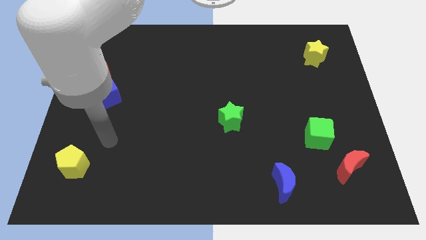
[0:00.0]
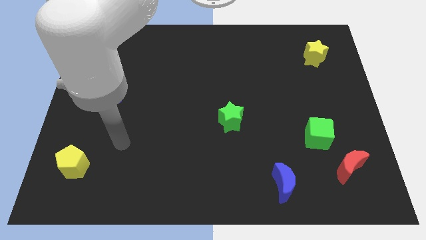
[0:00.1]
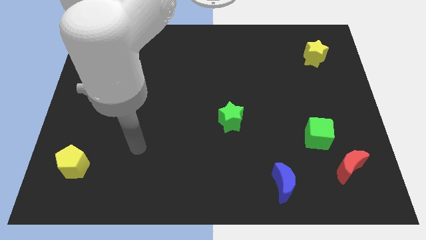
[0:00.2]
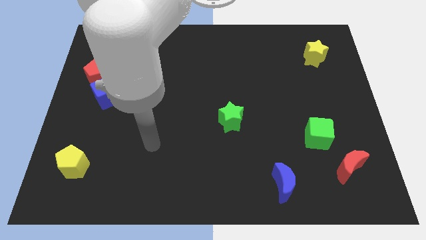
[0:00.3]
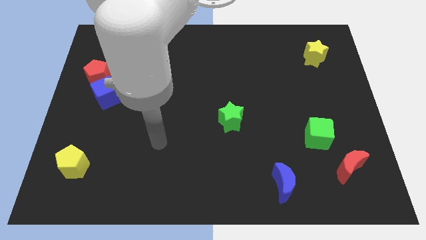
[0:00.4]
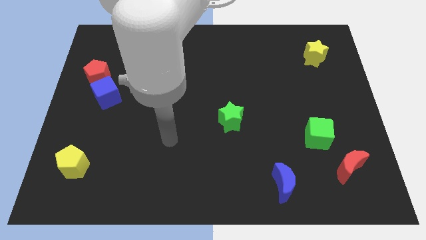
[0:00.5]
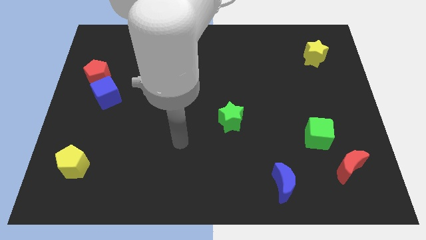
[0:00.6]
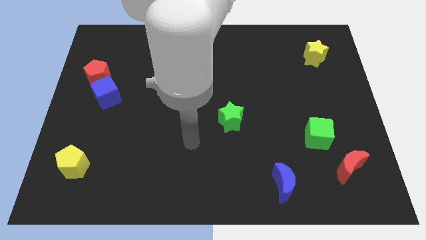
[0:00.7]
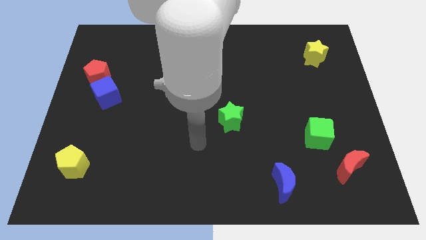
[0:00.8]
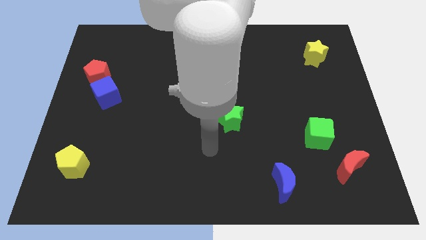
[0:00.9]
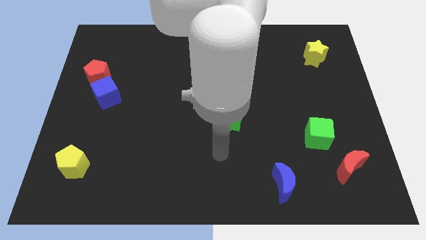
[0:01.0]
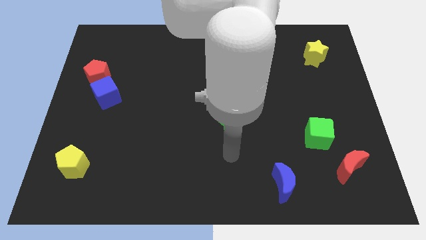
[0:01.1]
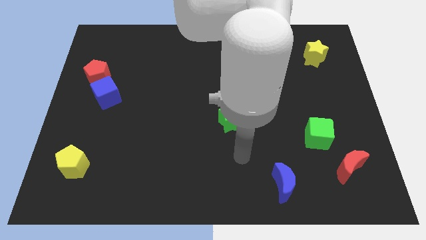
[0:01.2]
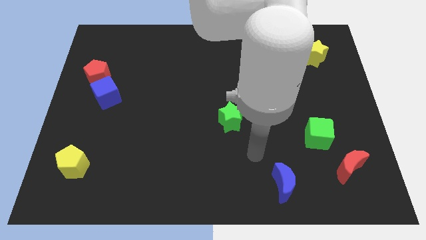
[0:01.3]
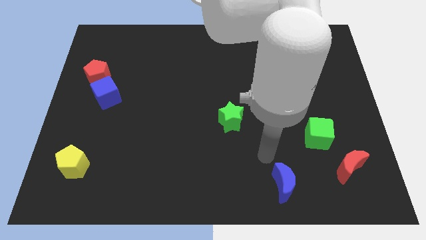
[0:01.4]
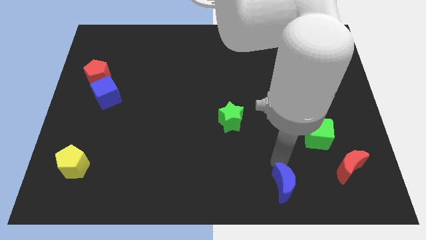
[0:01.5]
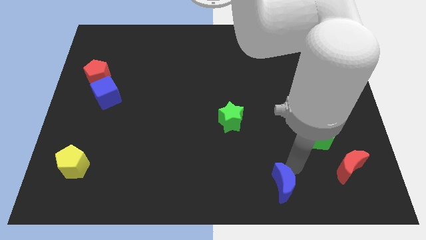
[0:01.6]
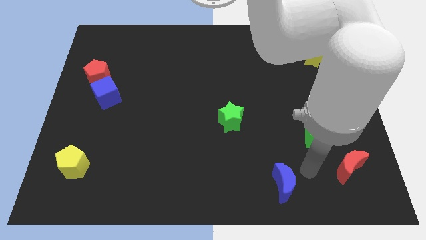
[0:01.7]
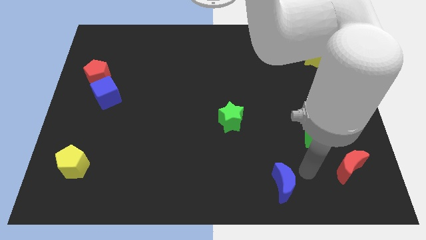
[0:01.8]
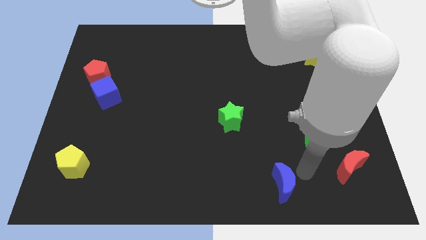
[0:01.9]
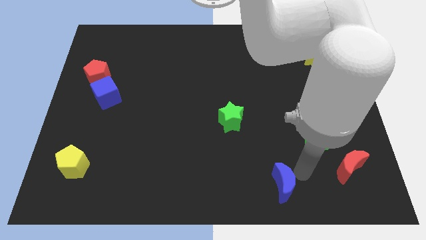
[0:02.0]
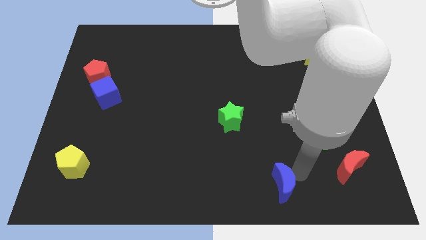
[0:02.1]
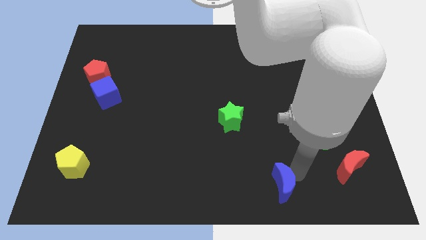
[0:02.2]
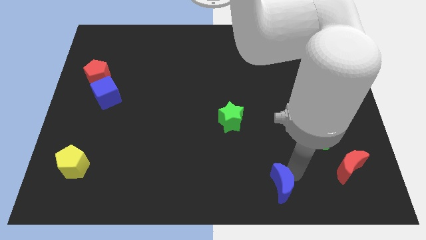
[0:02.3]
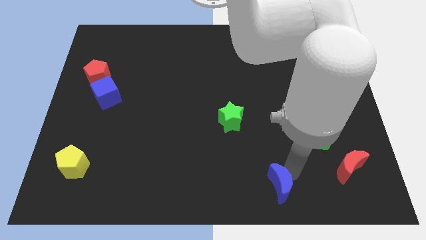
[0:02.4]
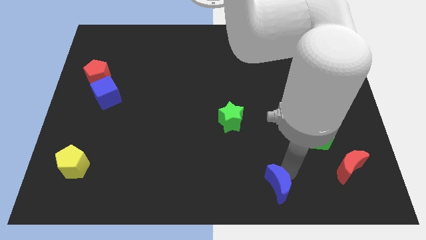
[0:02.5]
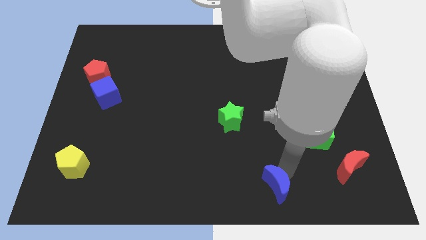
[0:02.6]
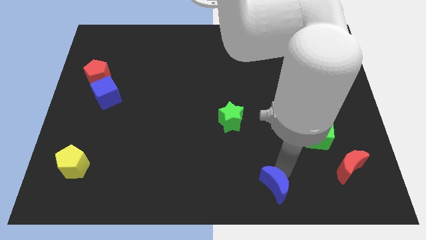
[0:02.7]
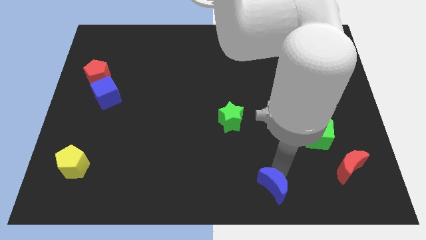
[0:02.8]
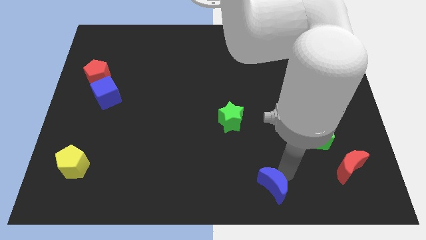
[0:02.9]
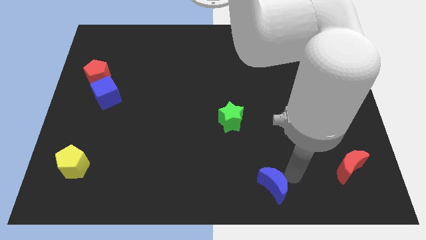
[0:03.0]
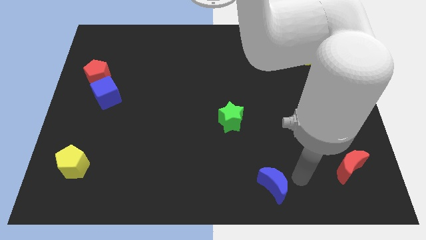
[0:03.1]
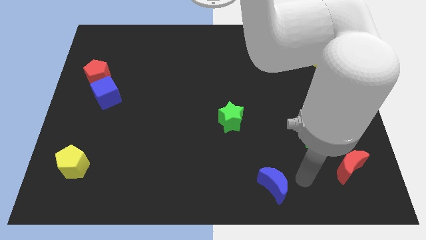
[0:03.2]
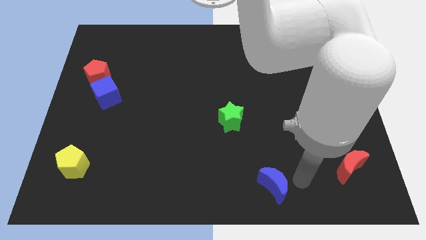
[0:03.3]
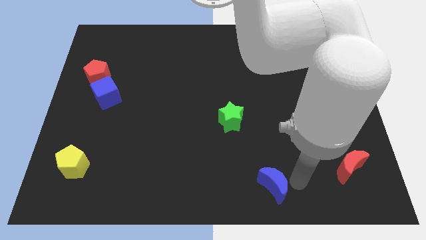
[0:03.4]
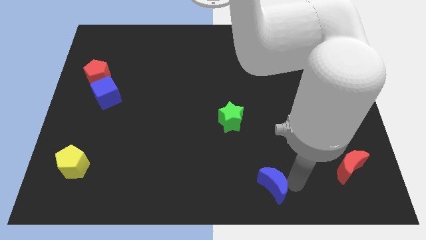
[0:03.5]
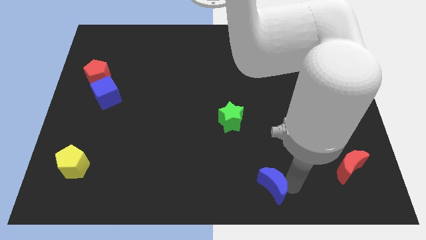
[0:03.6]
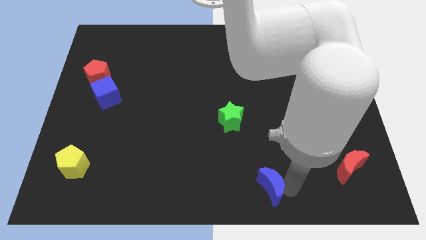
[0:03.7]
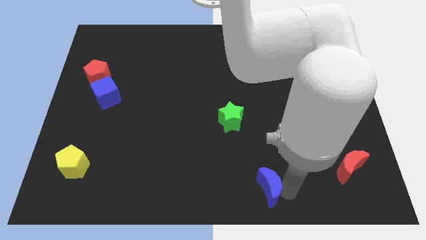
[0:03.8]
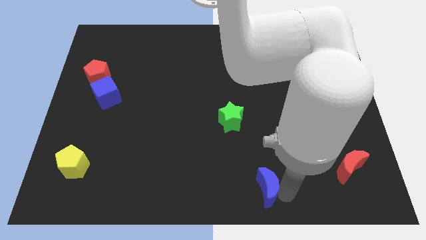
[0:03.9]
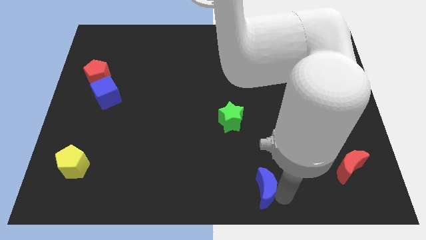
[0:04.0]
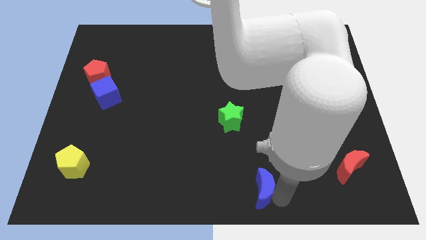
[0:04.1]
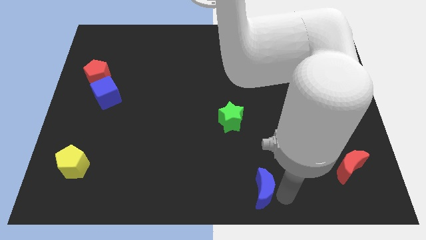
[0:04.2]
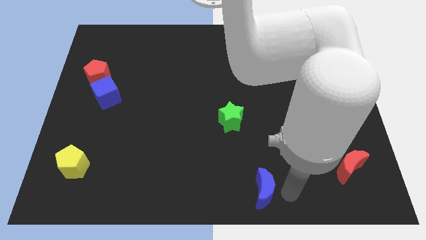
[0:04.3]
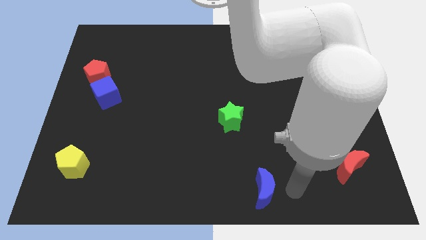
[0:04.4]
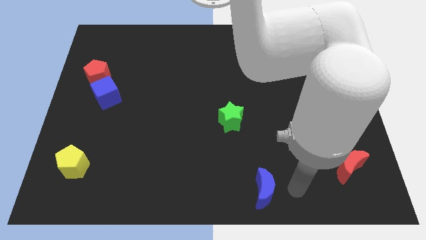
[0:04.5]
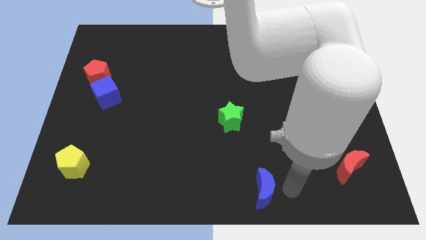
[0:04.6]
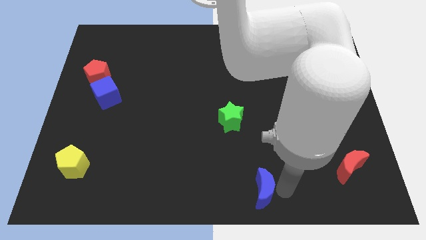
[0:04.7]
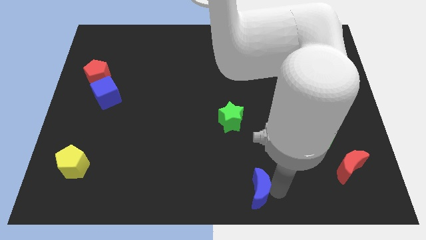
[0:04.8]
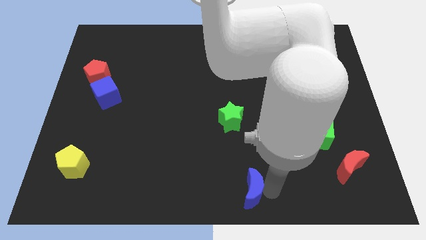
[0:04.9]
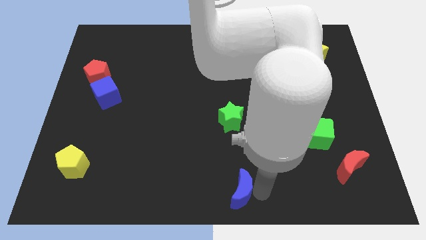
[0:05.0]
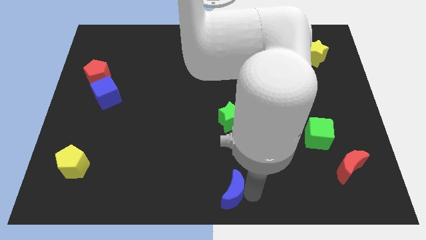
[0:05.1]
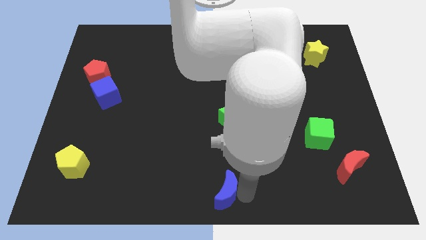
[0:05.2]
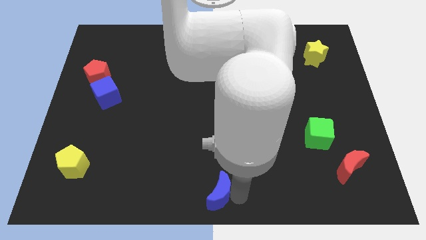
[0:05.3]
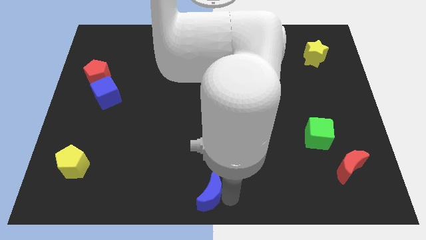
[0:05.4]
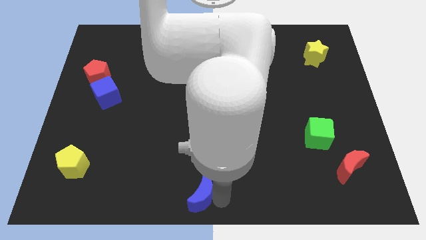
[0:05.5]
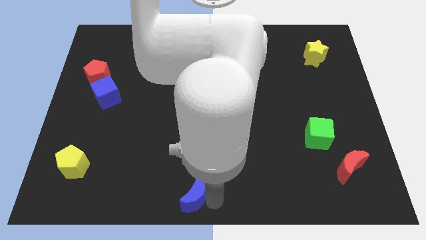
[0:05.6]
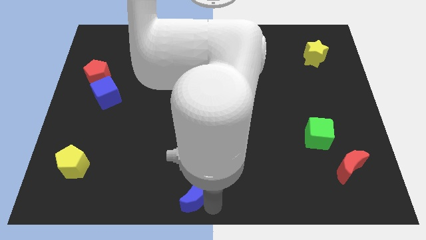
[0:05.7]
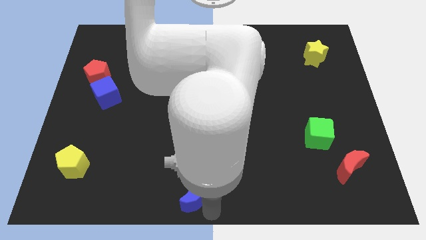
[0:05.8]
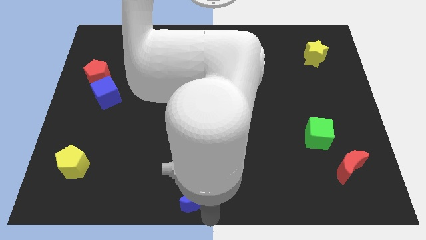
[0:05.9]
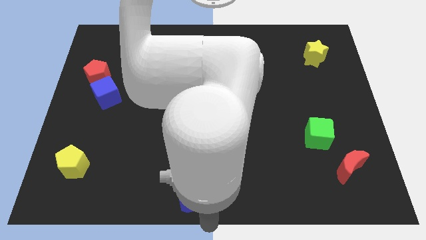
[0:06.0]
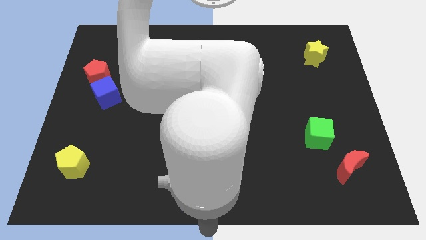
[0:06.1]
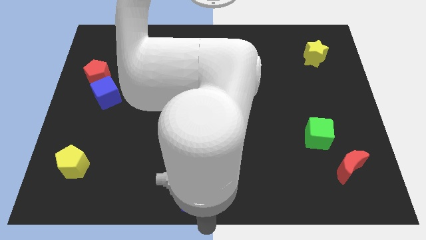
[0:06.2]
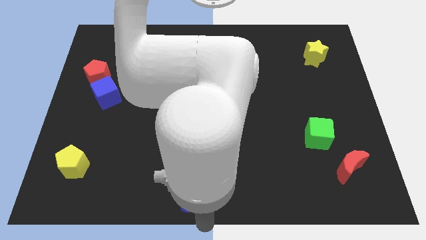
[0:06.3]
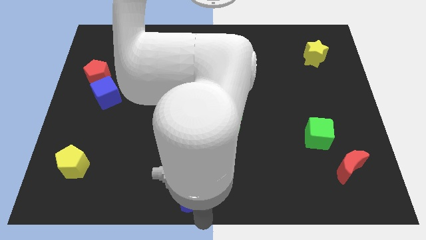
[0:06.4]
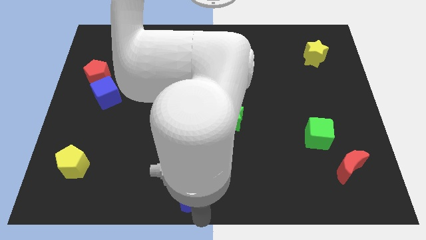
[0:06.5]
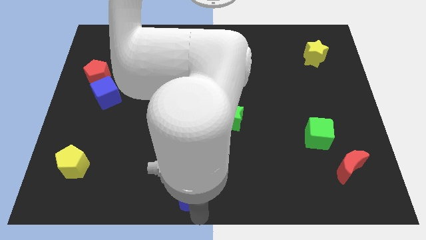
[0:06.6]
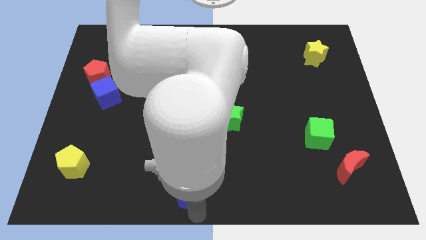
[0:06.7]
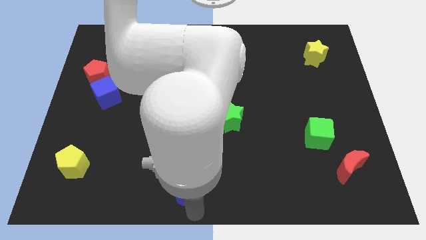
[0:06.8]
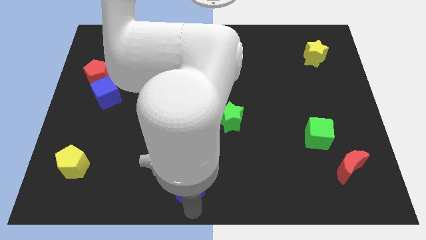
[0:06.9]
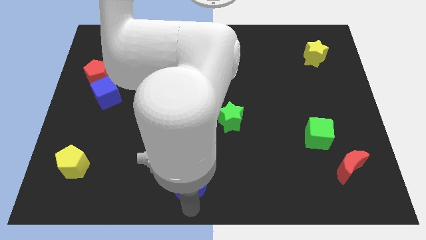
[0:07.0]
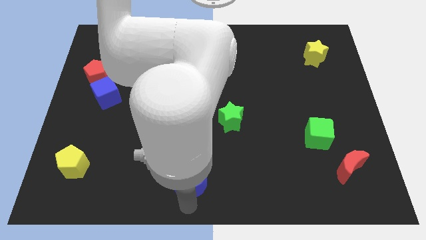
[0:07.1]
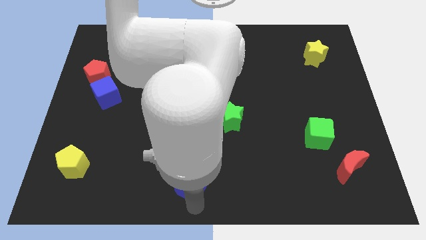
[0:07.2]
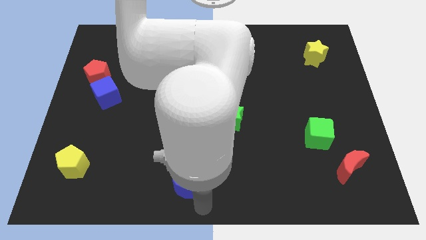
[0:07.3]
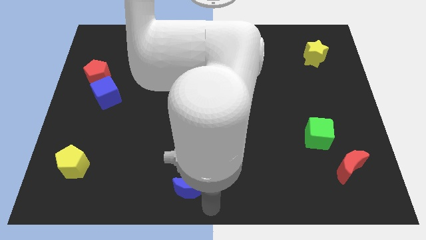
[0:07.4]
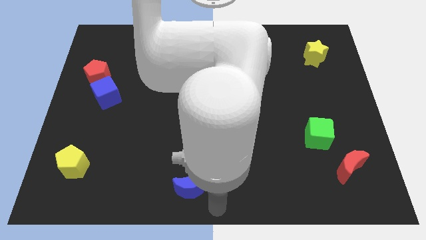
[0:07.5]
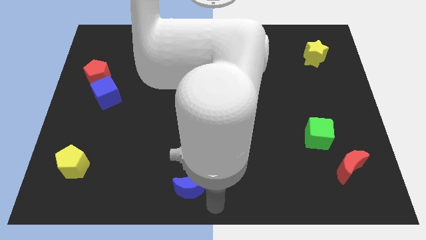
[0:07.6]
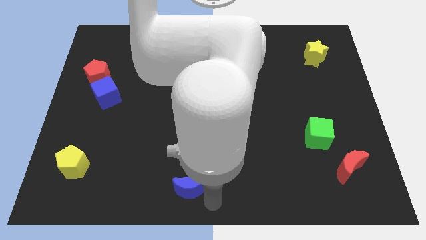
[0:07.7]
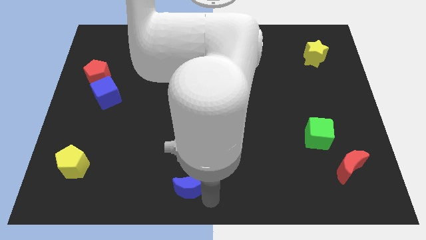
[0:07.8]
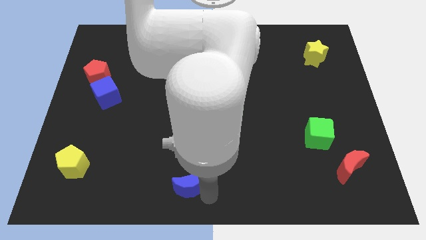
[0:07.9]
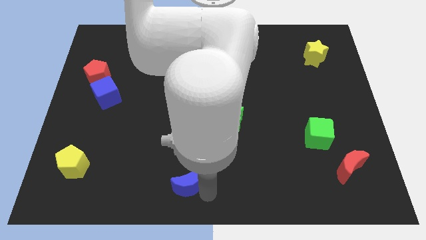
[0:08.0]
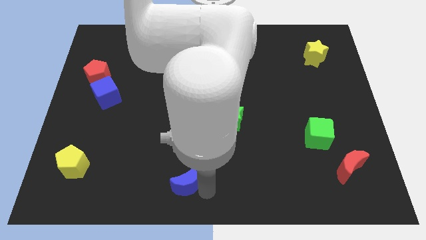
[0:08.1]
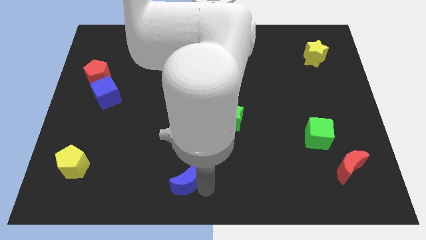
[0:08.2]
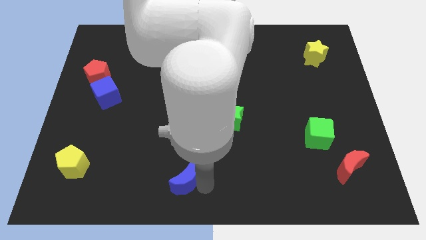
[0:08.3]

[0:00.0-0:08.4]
push the blue moon left
